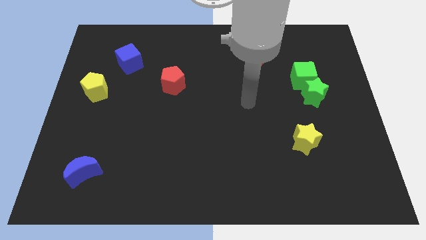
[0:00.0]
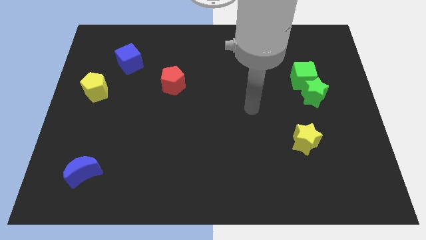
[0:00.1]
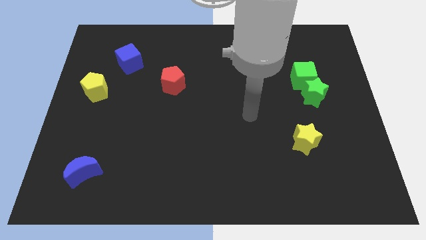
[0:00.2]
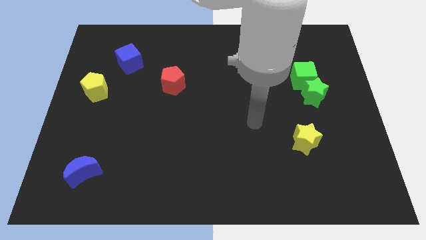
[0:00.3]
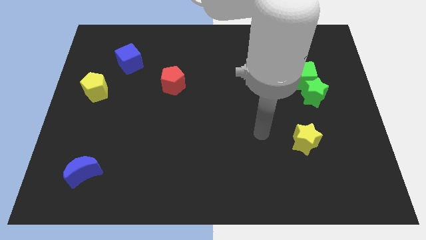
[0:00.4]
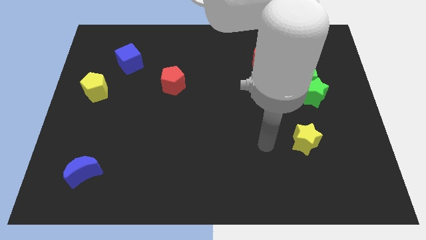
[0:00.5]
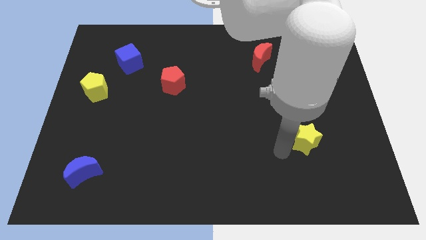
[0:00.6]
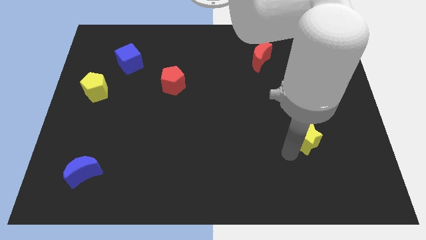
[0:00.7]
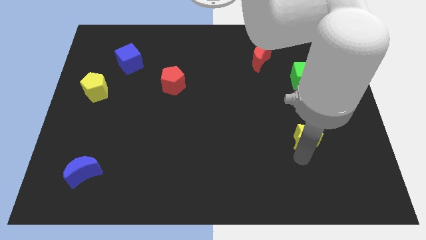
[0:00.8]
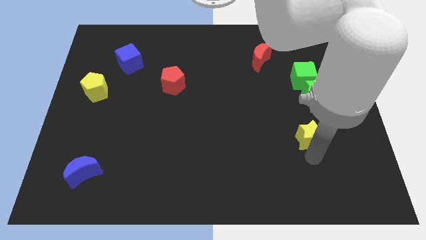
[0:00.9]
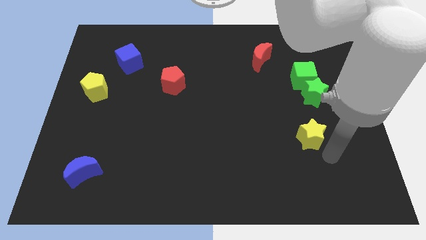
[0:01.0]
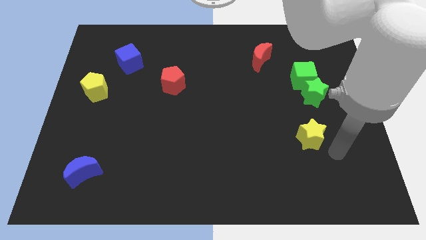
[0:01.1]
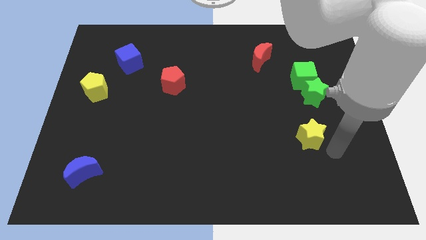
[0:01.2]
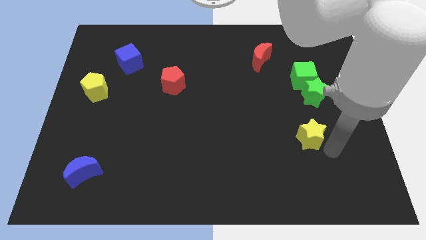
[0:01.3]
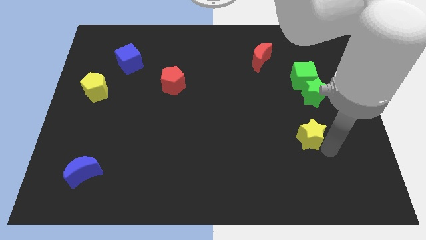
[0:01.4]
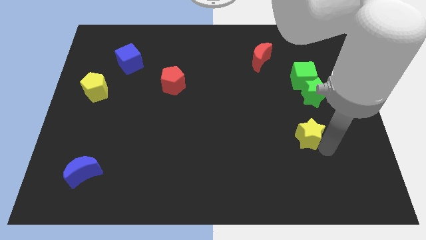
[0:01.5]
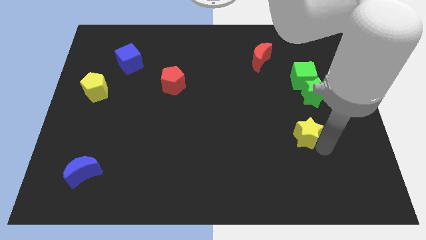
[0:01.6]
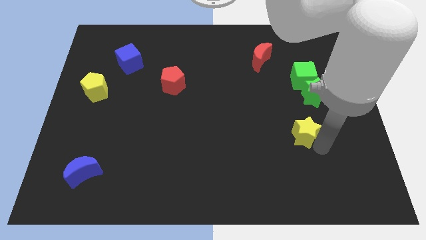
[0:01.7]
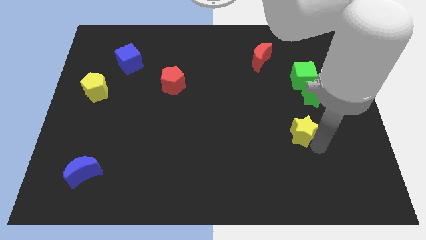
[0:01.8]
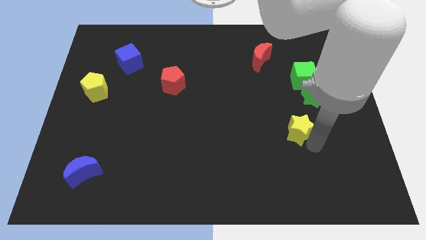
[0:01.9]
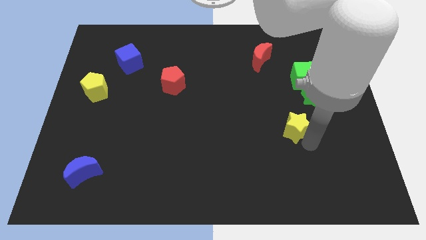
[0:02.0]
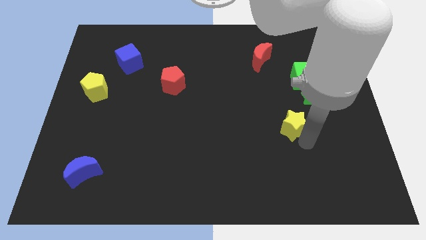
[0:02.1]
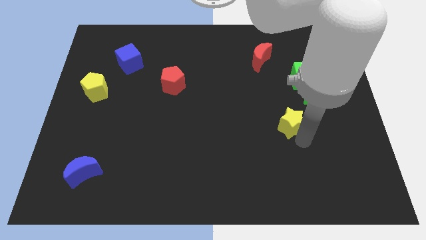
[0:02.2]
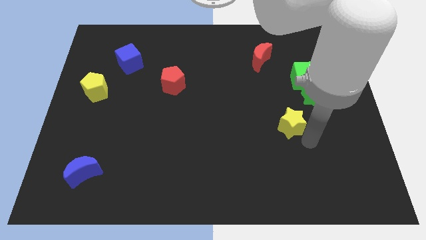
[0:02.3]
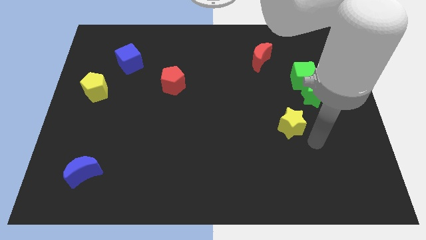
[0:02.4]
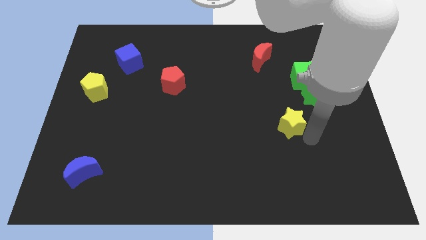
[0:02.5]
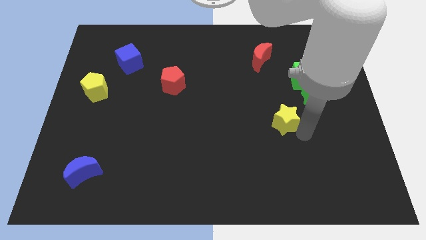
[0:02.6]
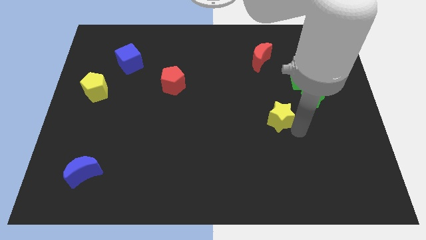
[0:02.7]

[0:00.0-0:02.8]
slightly push the yellow star upwards and to the left

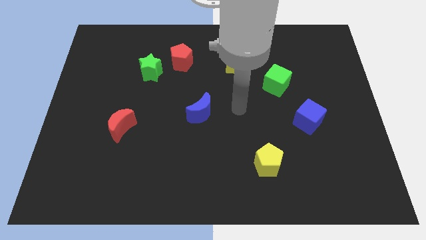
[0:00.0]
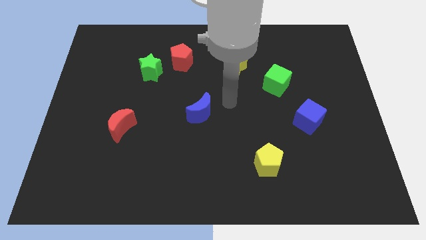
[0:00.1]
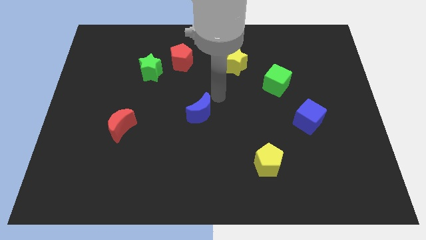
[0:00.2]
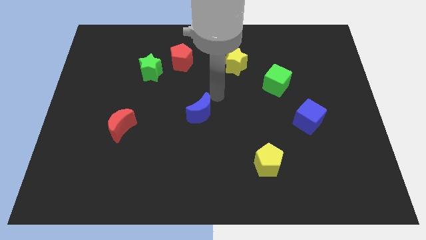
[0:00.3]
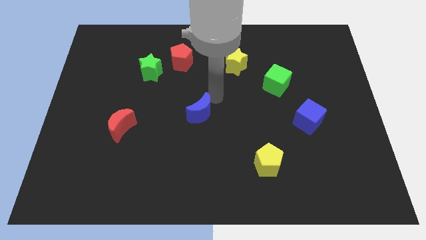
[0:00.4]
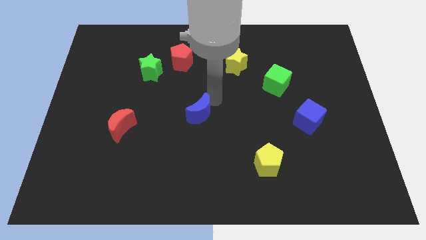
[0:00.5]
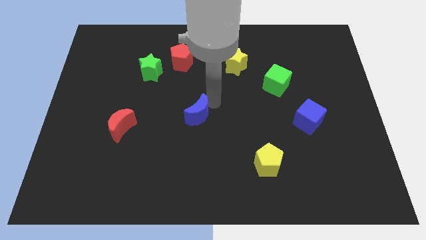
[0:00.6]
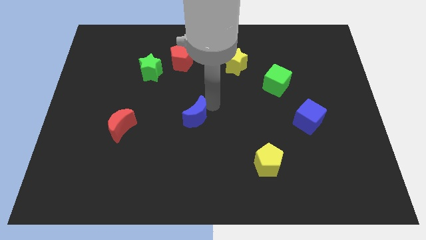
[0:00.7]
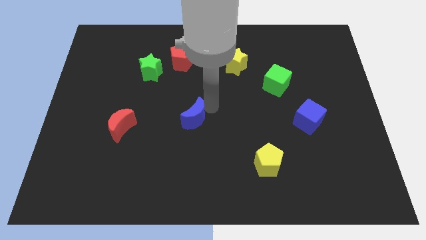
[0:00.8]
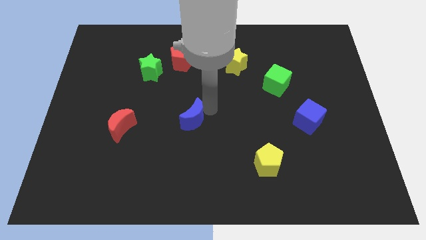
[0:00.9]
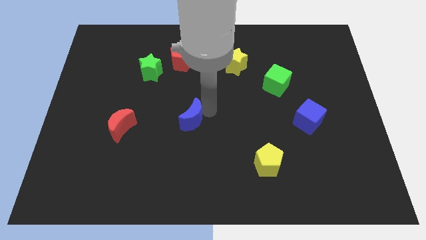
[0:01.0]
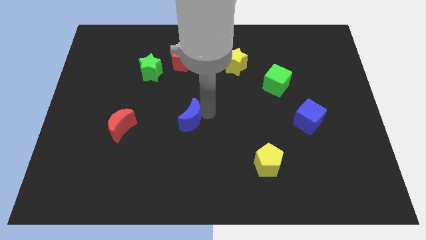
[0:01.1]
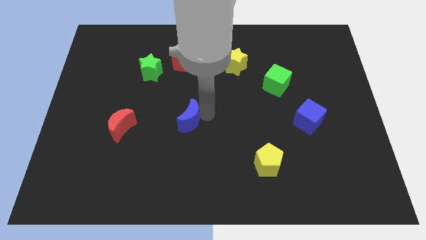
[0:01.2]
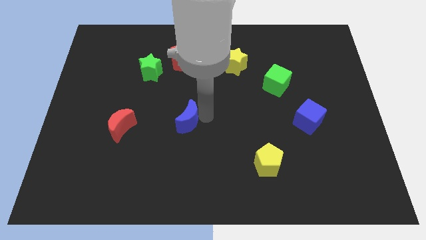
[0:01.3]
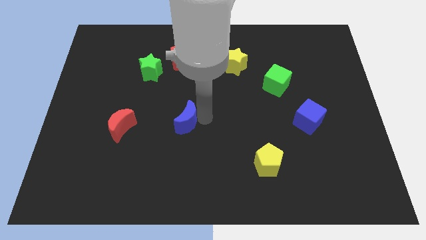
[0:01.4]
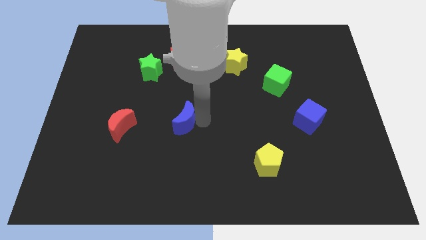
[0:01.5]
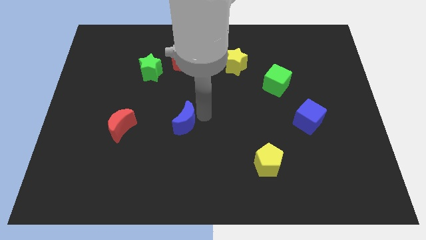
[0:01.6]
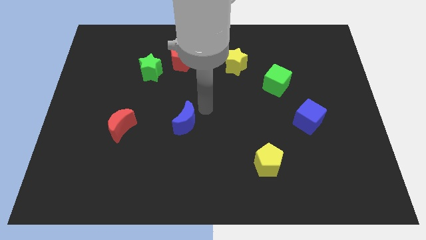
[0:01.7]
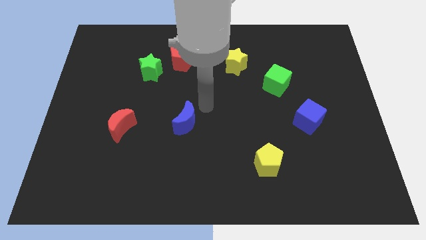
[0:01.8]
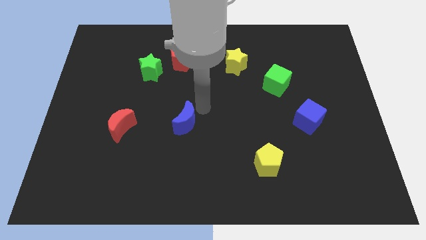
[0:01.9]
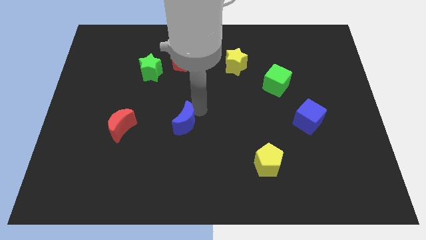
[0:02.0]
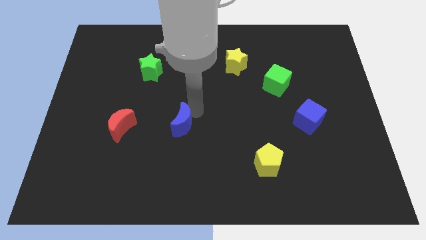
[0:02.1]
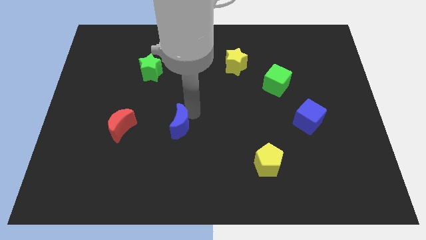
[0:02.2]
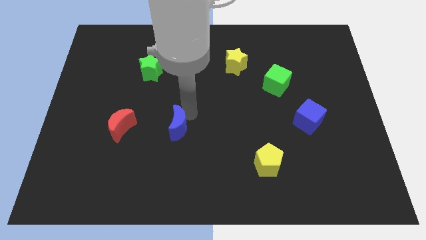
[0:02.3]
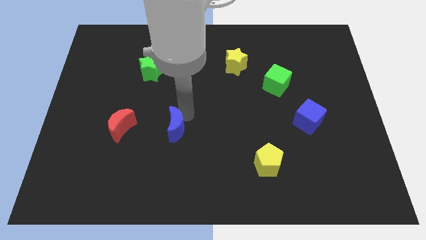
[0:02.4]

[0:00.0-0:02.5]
slide the blue moon a little bit downwards and left

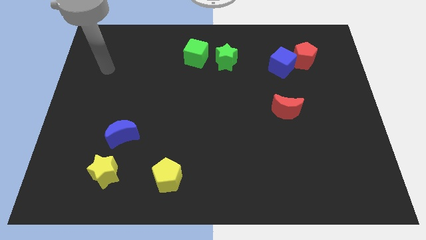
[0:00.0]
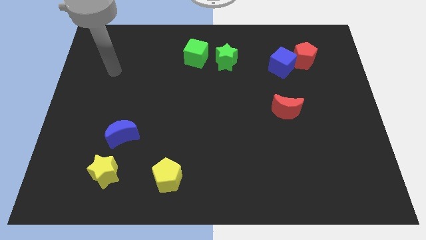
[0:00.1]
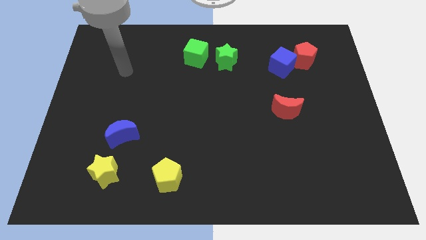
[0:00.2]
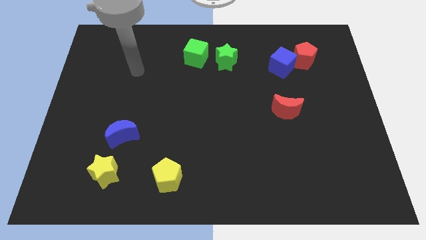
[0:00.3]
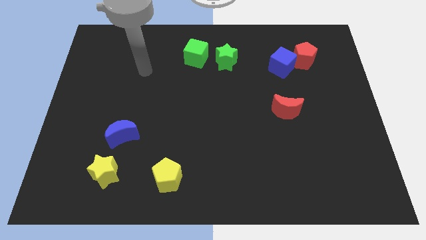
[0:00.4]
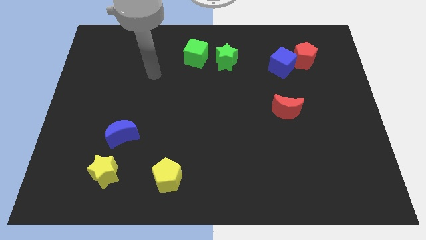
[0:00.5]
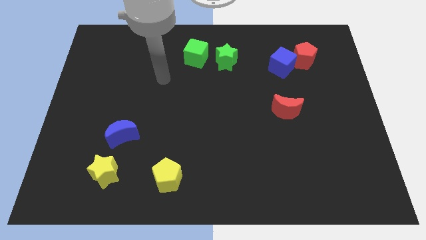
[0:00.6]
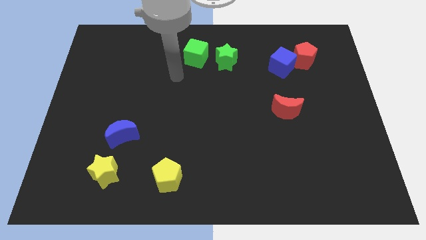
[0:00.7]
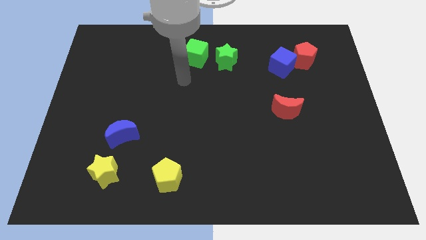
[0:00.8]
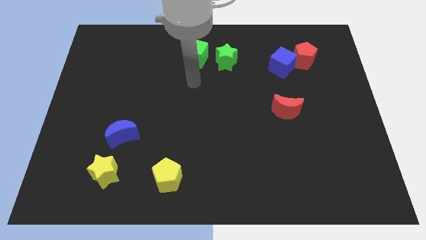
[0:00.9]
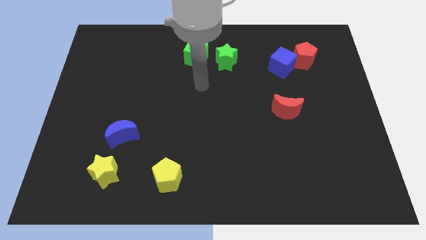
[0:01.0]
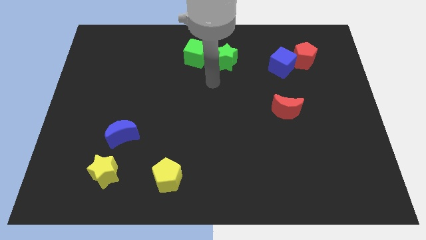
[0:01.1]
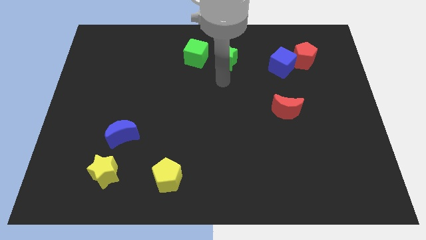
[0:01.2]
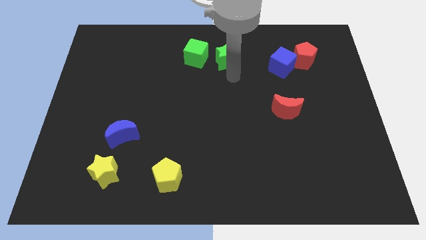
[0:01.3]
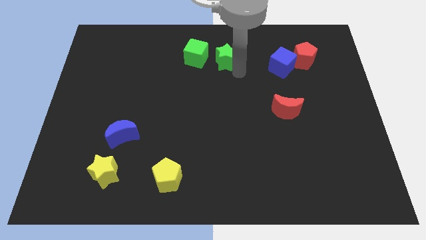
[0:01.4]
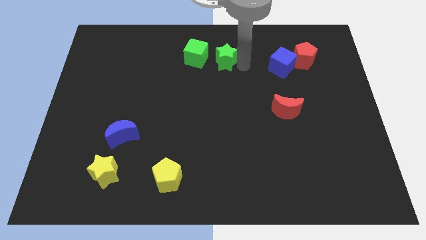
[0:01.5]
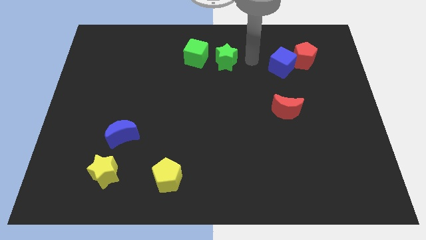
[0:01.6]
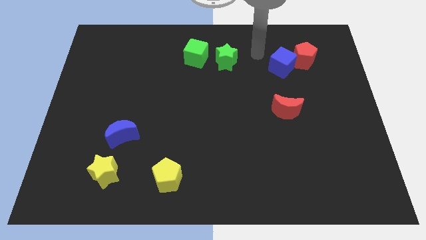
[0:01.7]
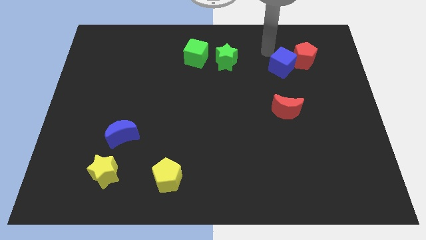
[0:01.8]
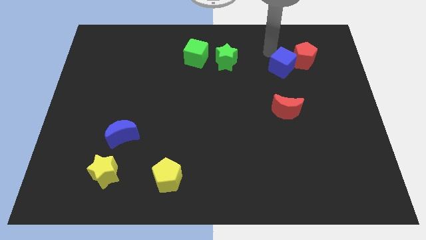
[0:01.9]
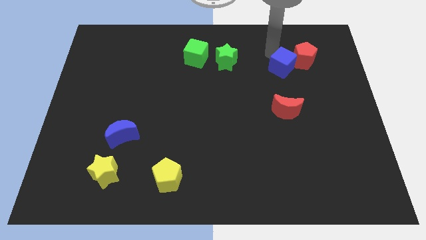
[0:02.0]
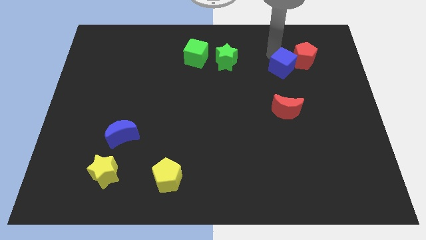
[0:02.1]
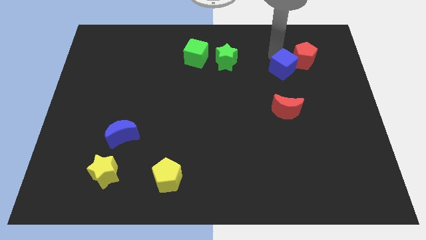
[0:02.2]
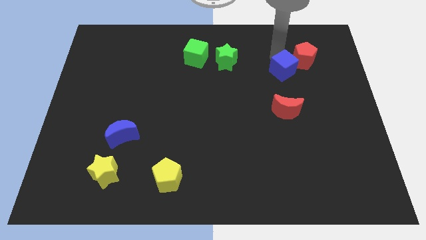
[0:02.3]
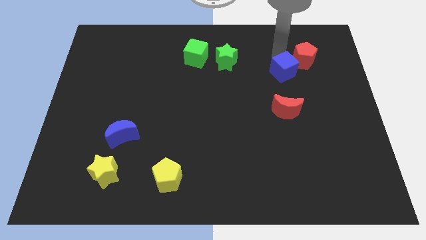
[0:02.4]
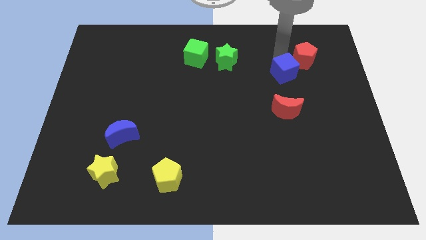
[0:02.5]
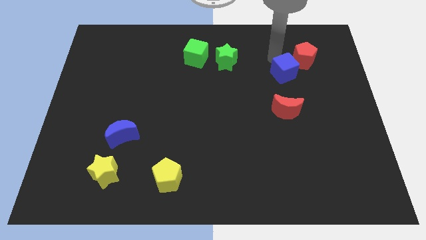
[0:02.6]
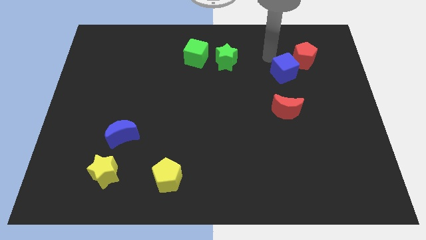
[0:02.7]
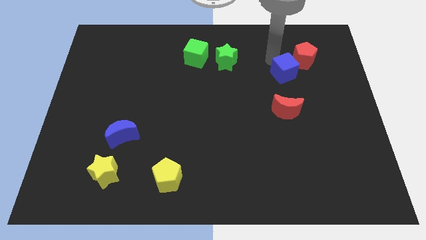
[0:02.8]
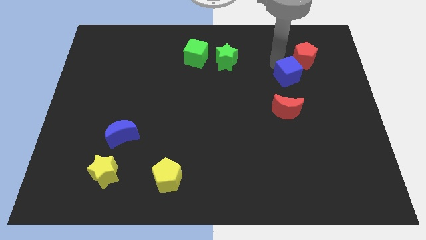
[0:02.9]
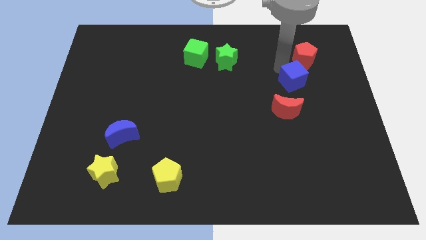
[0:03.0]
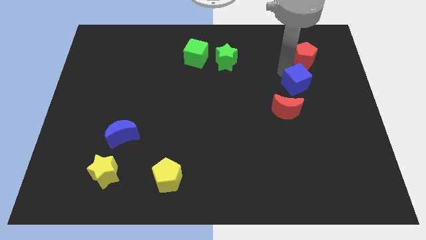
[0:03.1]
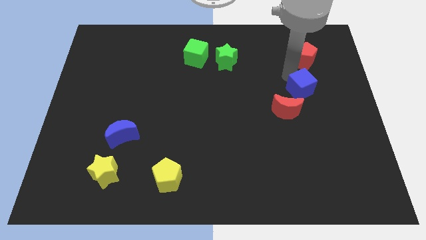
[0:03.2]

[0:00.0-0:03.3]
move the blue cube a little bit downwards
